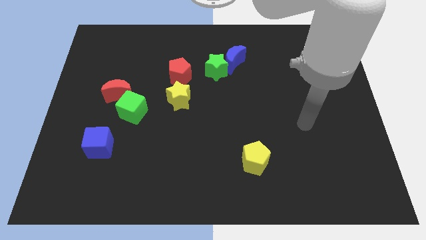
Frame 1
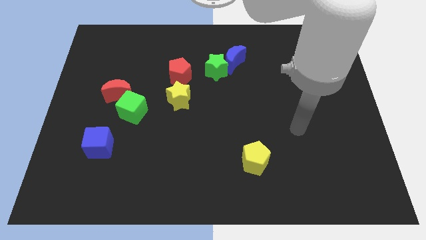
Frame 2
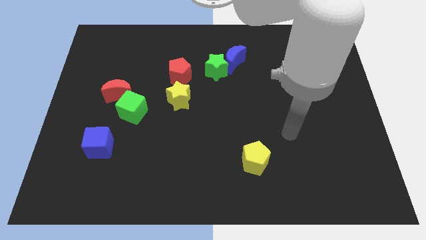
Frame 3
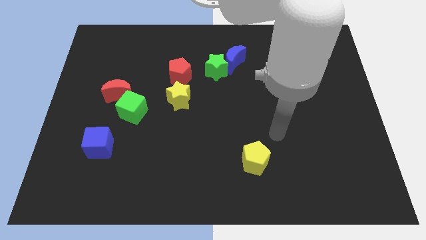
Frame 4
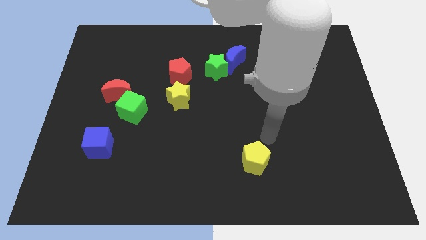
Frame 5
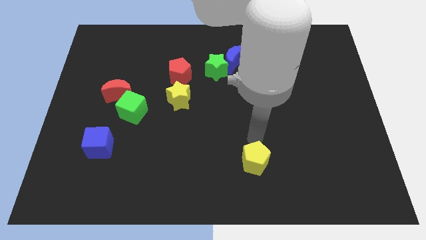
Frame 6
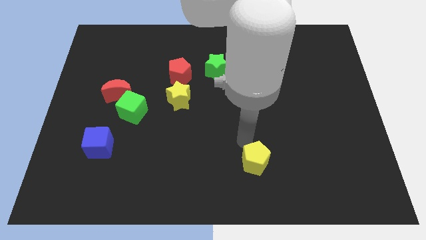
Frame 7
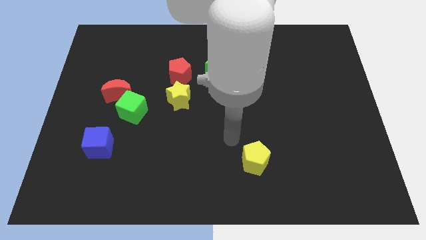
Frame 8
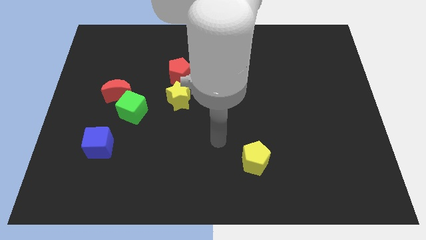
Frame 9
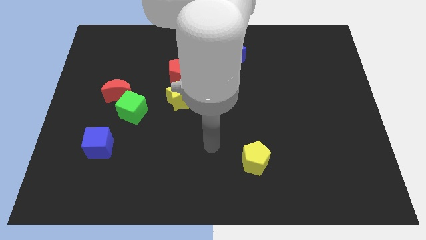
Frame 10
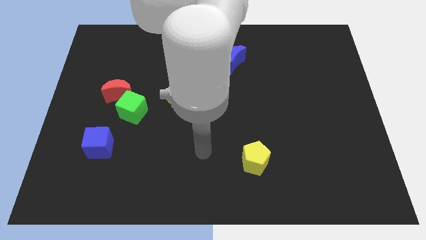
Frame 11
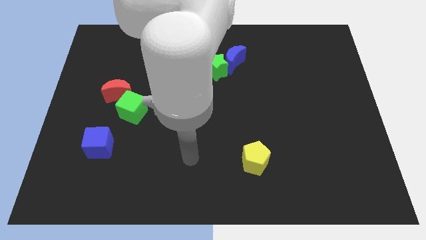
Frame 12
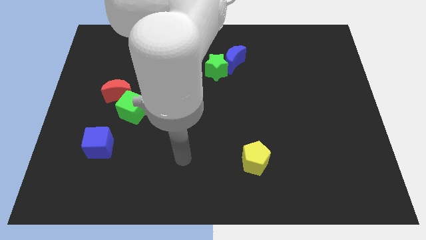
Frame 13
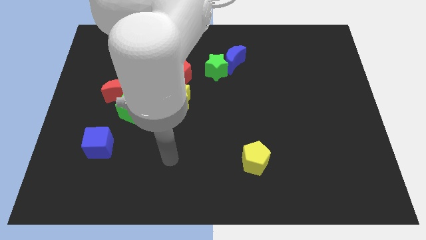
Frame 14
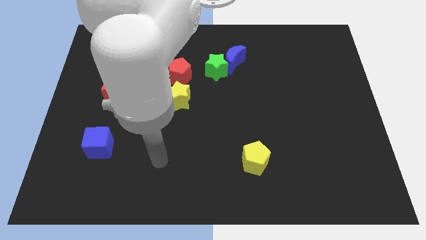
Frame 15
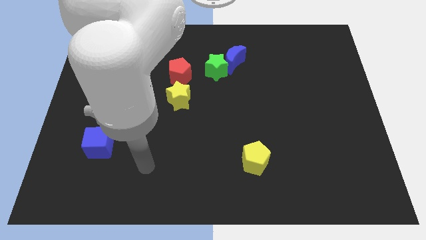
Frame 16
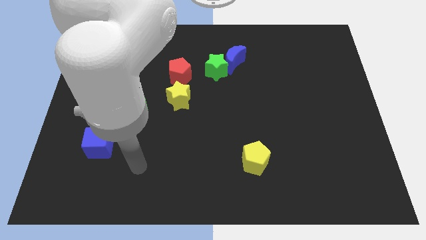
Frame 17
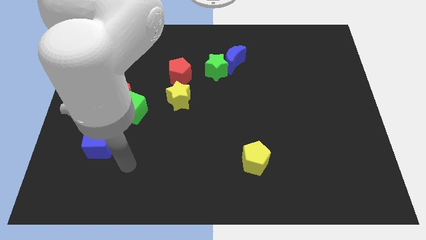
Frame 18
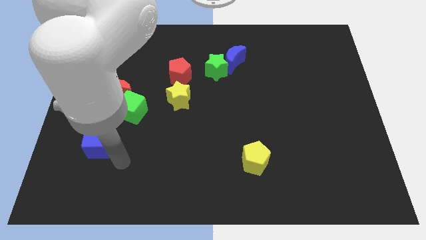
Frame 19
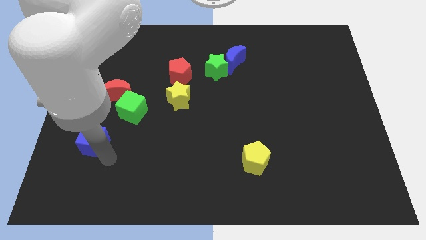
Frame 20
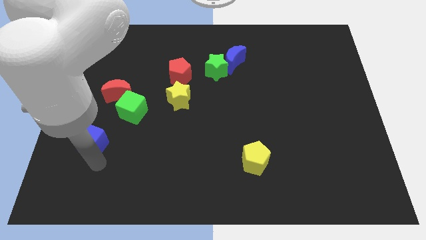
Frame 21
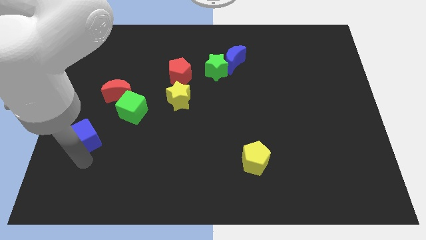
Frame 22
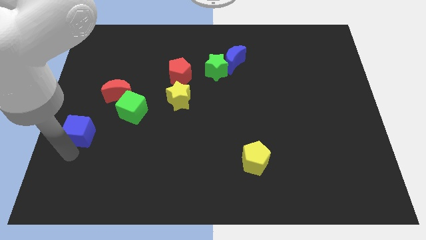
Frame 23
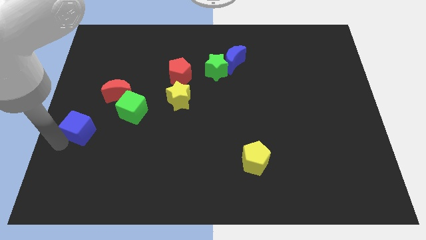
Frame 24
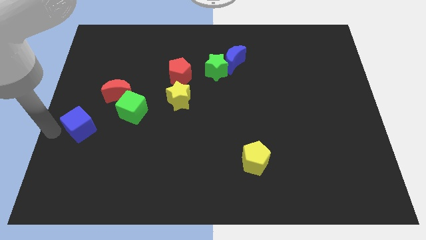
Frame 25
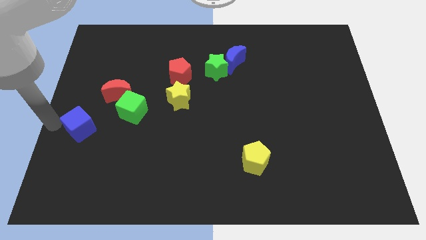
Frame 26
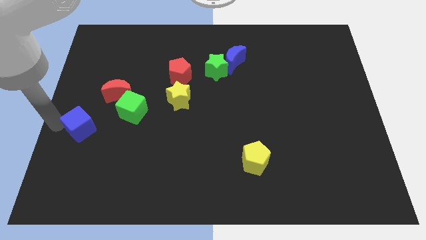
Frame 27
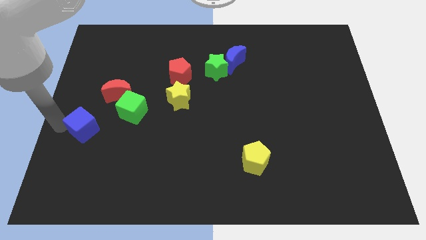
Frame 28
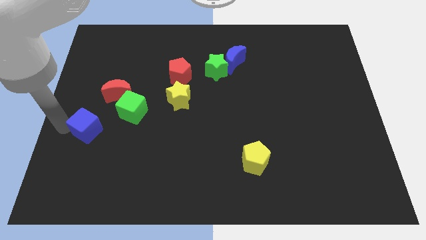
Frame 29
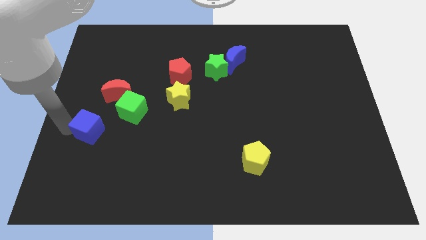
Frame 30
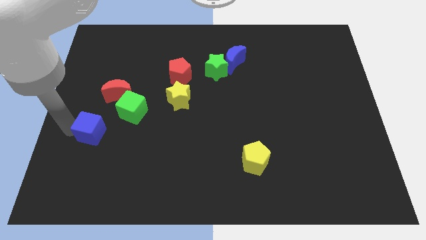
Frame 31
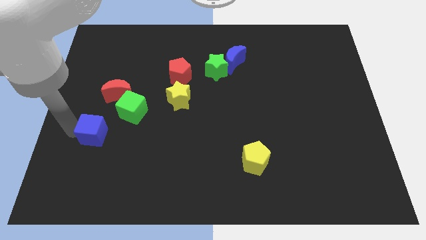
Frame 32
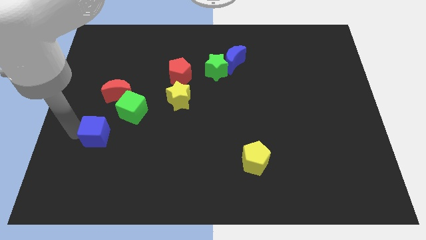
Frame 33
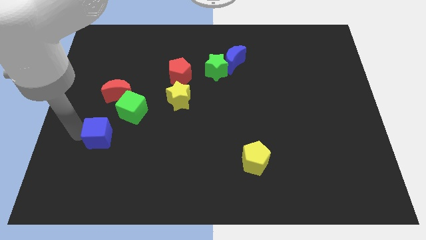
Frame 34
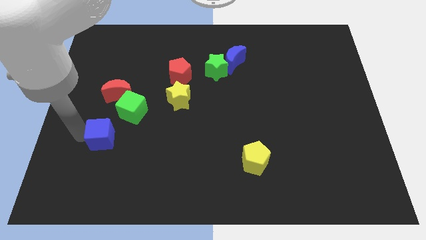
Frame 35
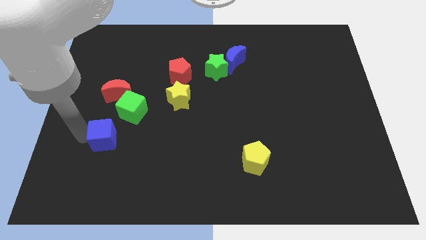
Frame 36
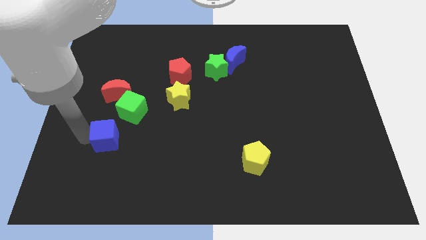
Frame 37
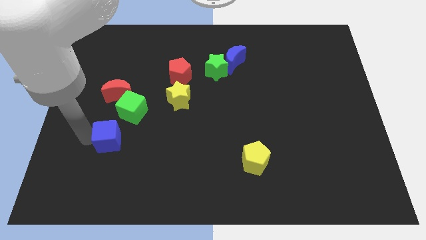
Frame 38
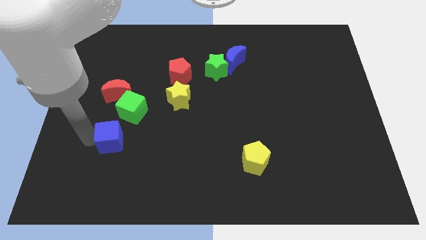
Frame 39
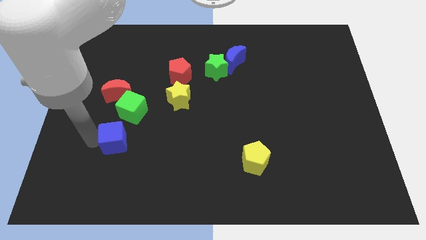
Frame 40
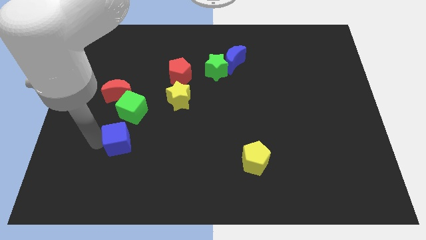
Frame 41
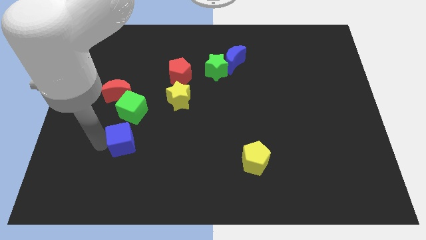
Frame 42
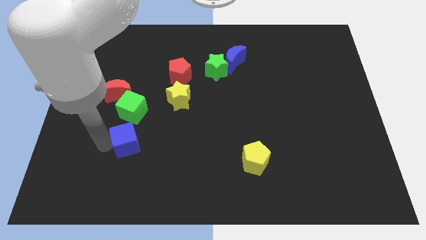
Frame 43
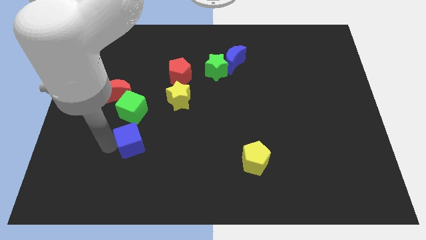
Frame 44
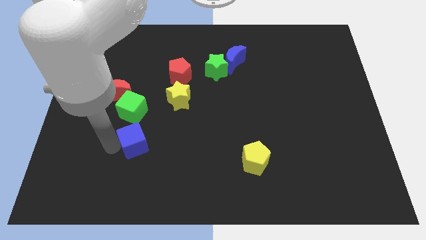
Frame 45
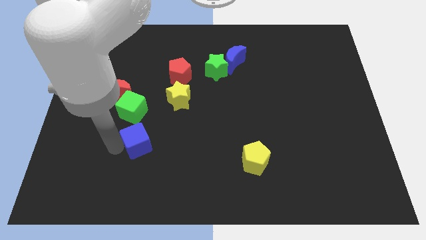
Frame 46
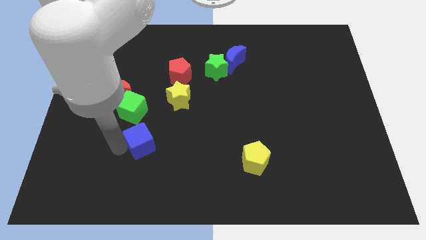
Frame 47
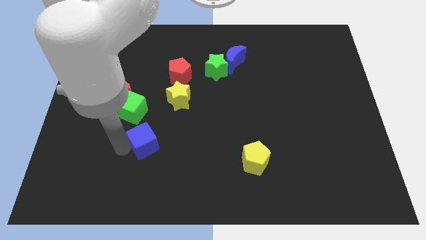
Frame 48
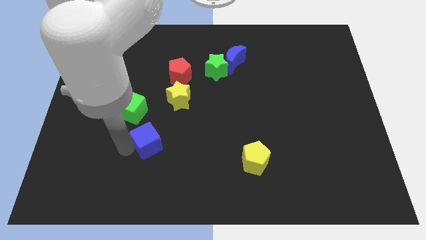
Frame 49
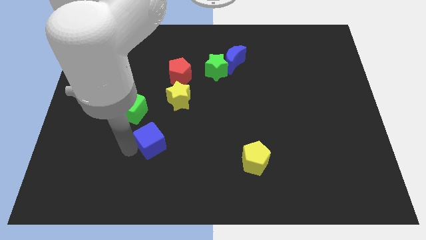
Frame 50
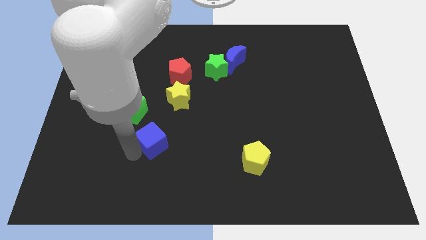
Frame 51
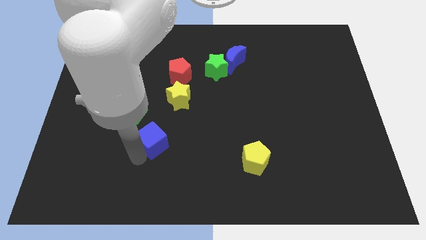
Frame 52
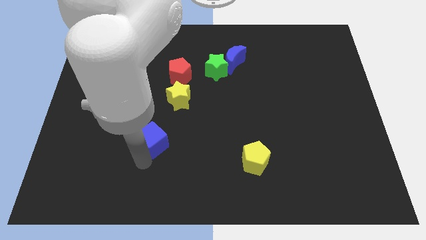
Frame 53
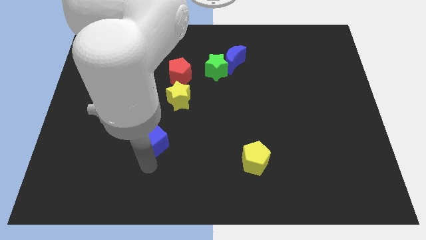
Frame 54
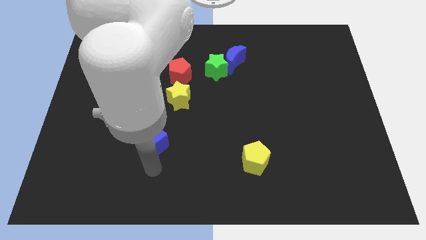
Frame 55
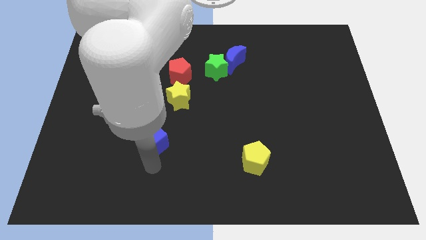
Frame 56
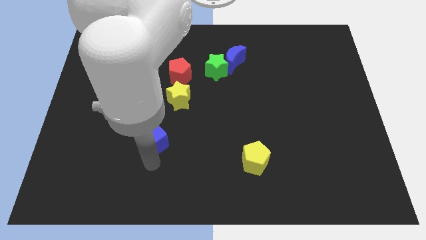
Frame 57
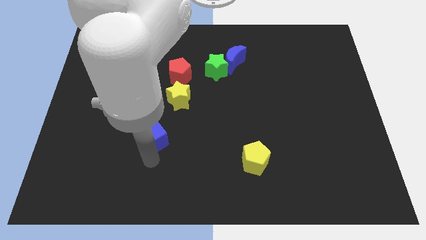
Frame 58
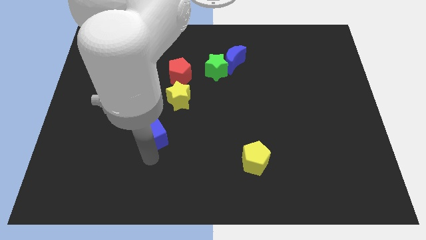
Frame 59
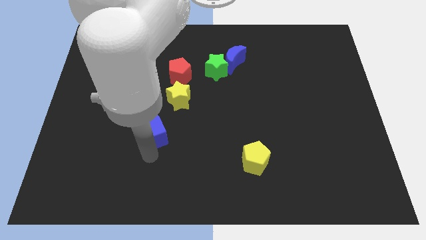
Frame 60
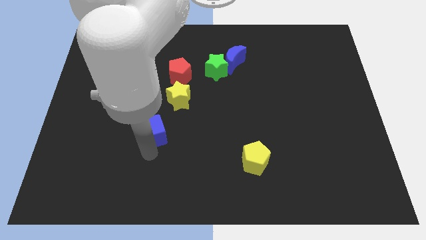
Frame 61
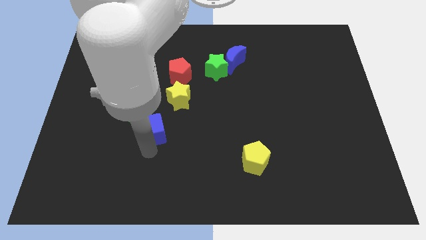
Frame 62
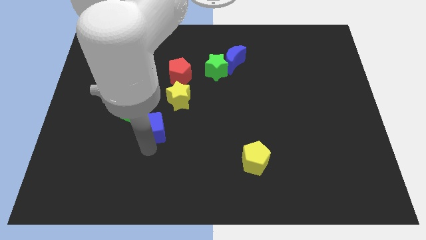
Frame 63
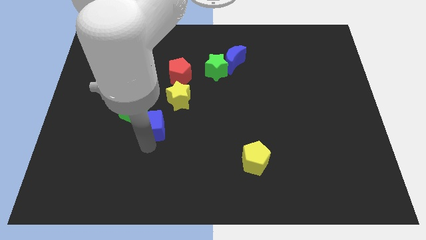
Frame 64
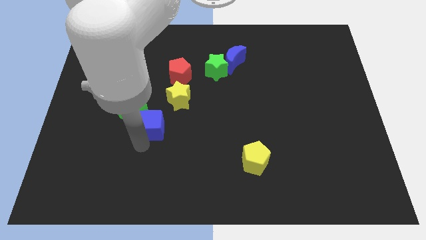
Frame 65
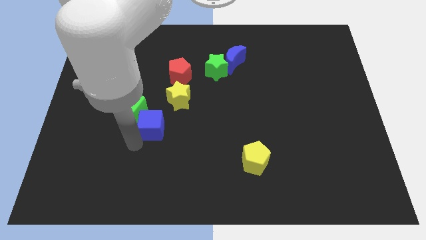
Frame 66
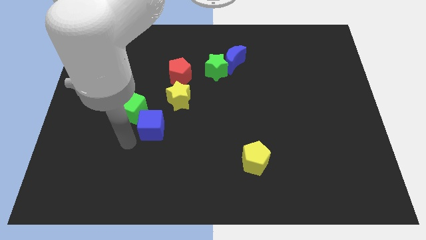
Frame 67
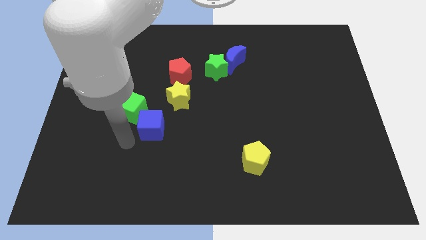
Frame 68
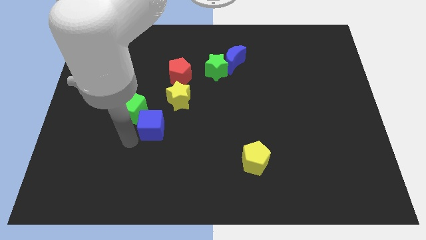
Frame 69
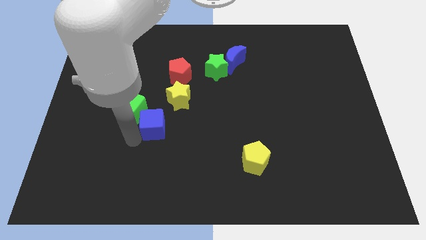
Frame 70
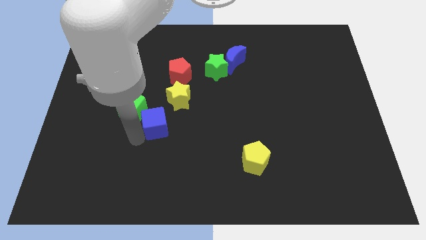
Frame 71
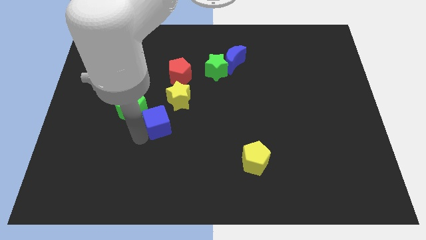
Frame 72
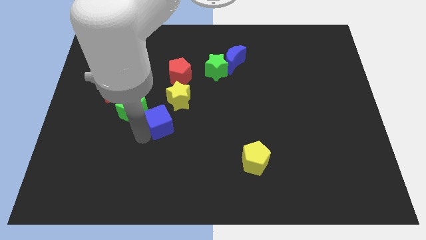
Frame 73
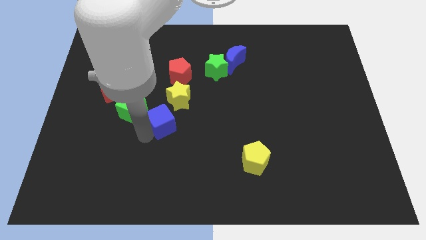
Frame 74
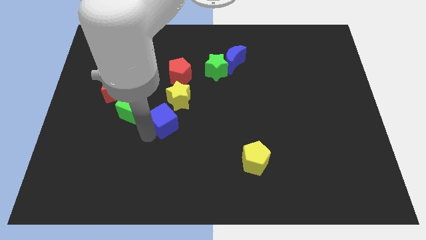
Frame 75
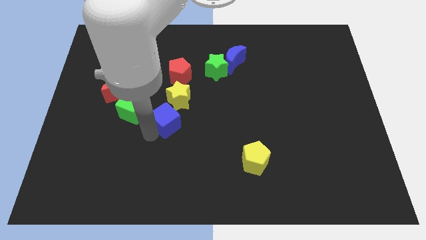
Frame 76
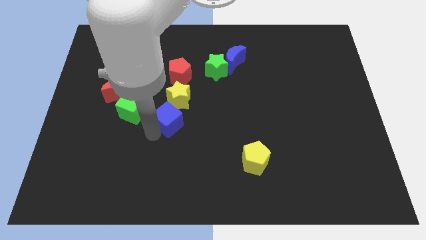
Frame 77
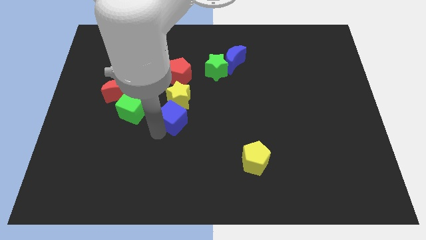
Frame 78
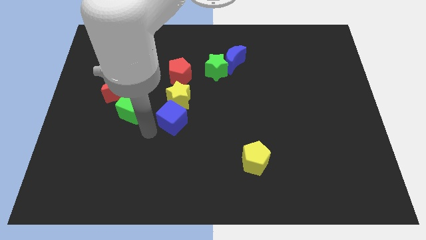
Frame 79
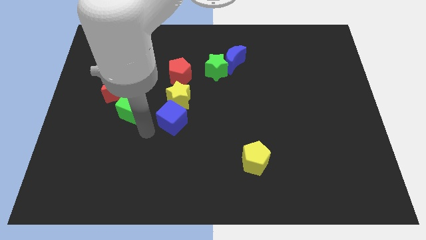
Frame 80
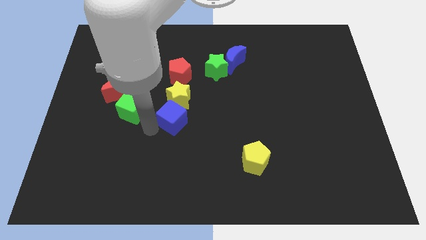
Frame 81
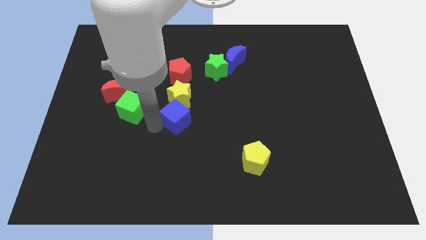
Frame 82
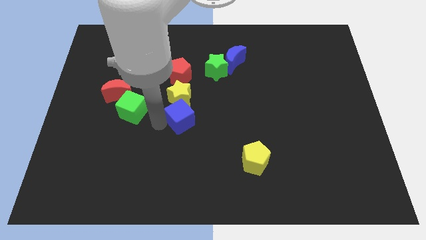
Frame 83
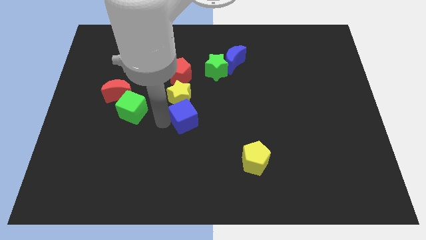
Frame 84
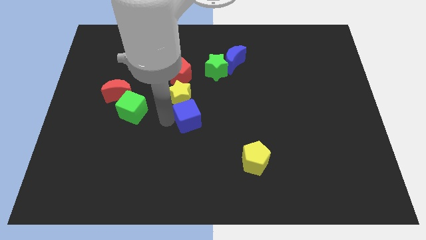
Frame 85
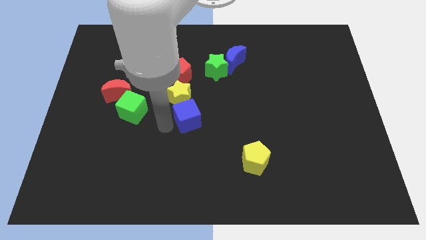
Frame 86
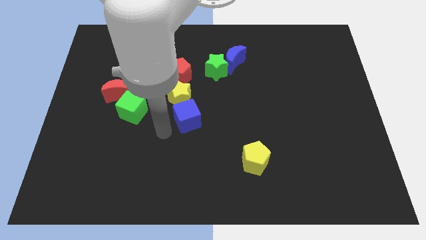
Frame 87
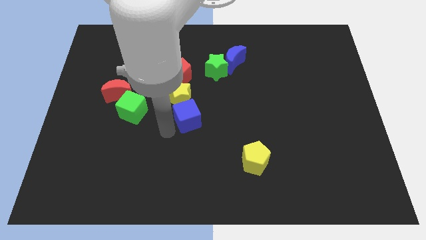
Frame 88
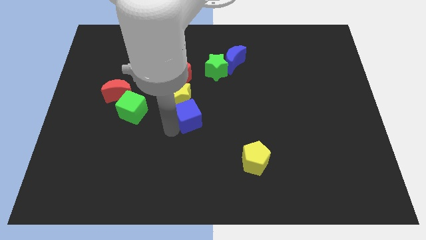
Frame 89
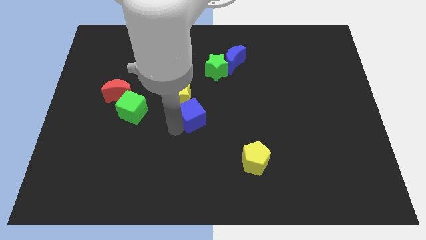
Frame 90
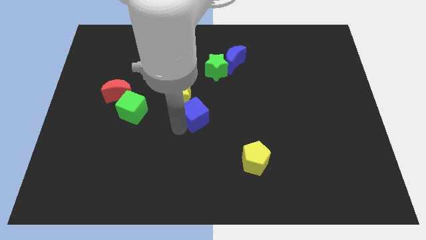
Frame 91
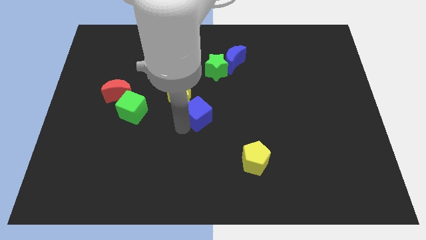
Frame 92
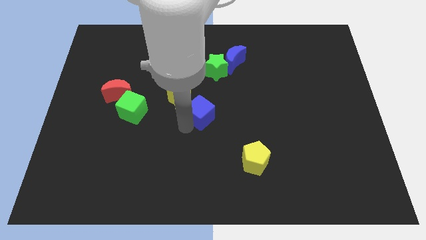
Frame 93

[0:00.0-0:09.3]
put the blue cube below the green star
